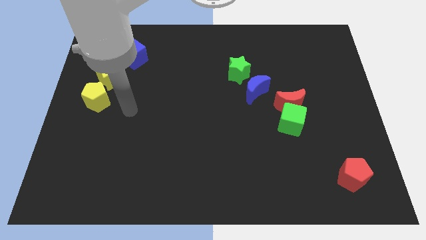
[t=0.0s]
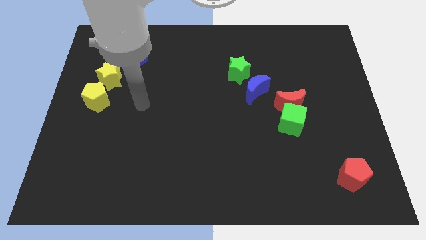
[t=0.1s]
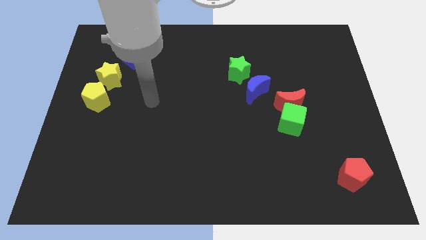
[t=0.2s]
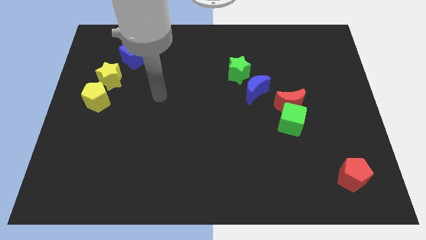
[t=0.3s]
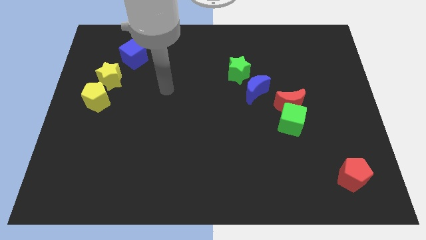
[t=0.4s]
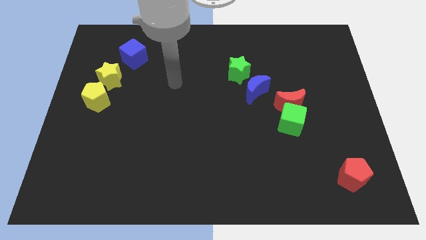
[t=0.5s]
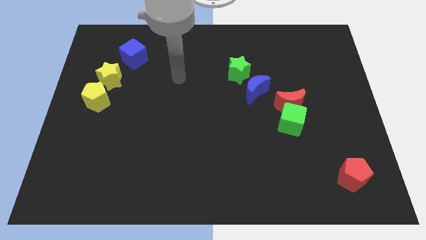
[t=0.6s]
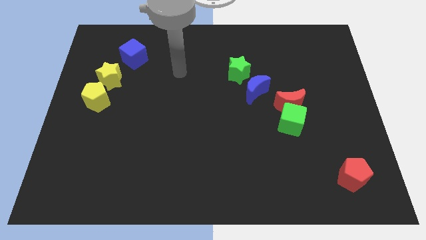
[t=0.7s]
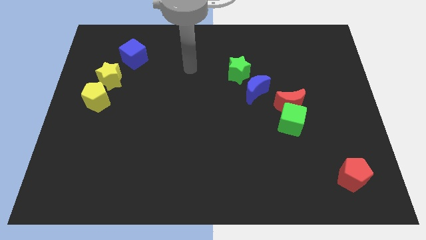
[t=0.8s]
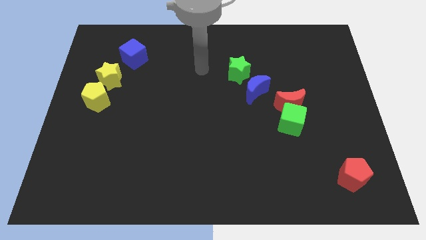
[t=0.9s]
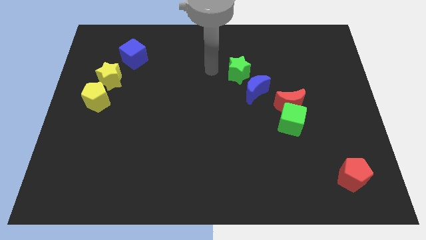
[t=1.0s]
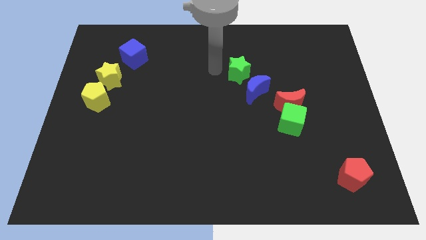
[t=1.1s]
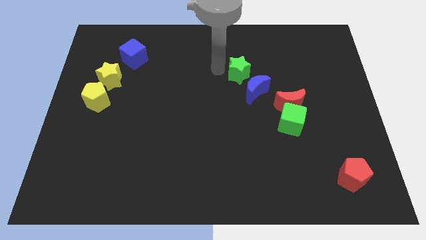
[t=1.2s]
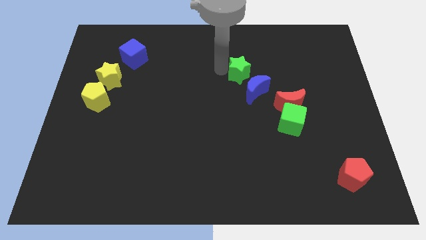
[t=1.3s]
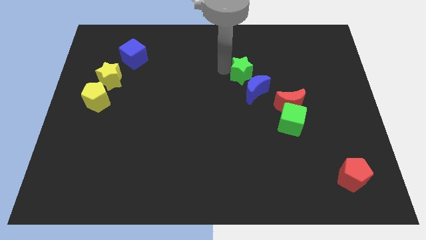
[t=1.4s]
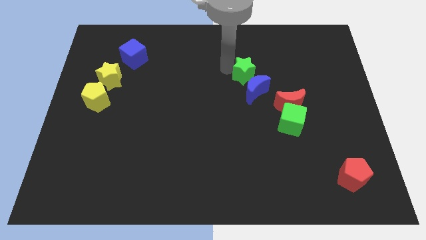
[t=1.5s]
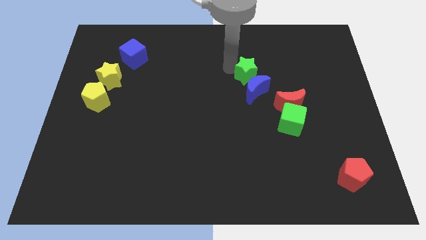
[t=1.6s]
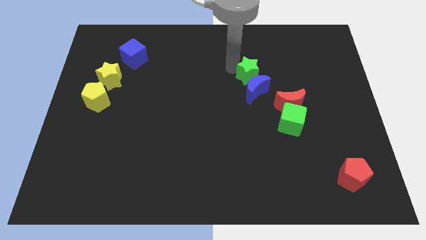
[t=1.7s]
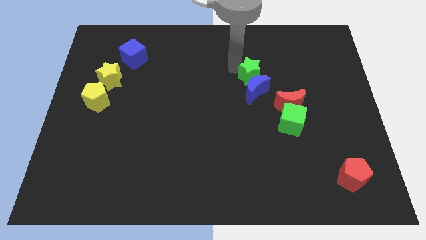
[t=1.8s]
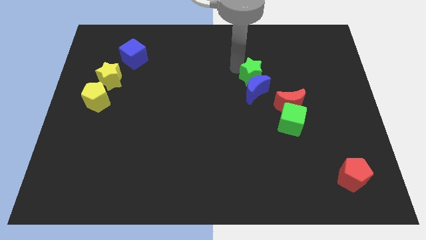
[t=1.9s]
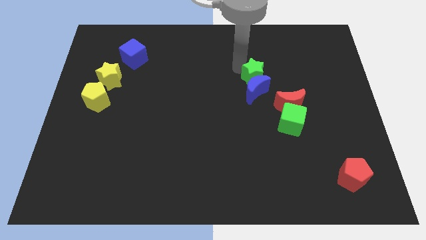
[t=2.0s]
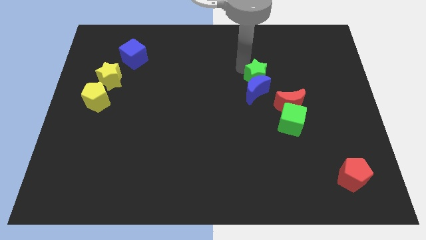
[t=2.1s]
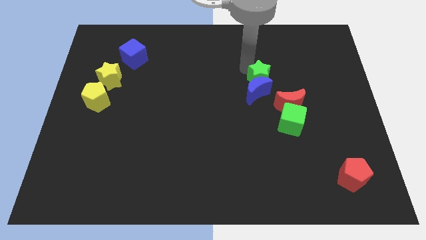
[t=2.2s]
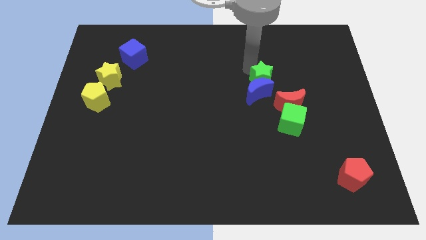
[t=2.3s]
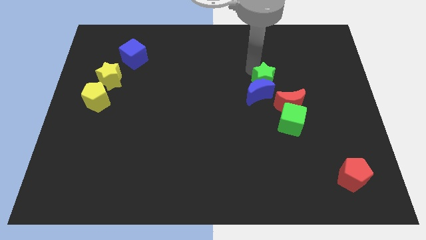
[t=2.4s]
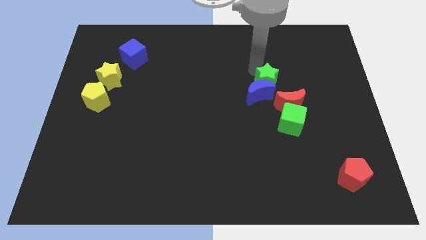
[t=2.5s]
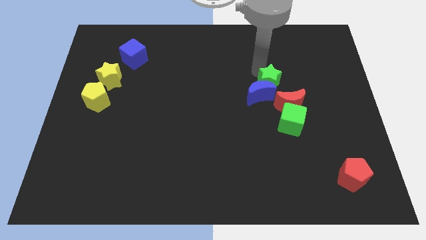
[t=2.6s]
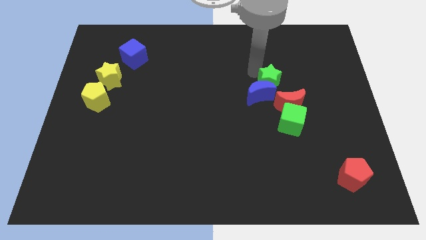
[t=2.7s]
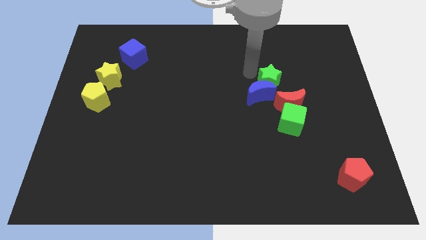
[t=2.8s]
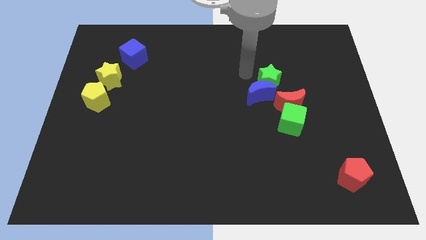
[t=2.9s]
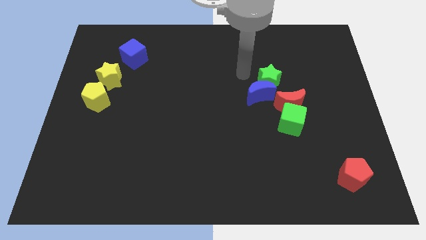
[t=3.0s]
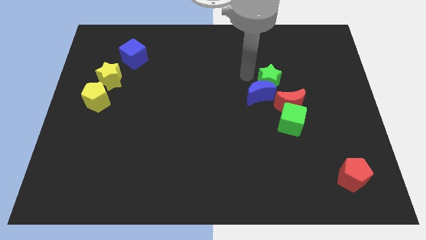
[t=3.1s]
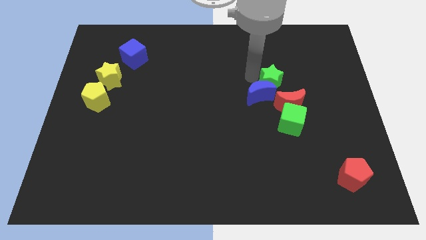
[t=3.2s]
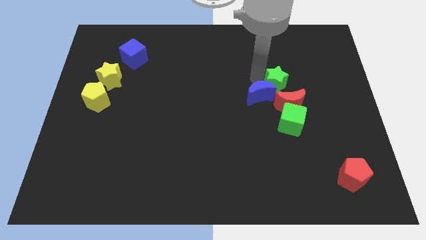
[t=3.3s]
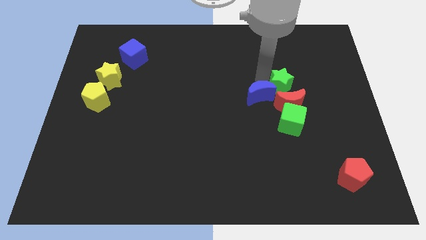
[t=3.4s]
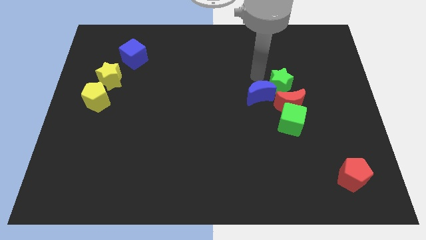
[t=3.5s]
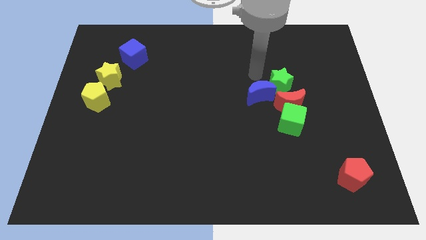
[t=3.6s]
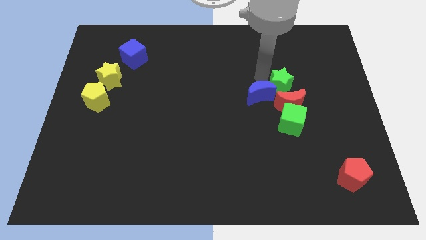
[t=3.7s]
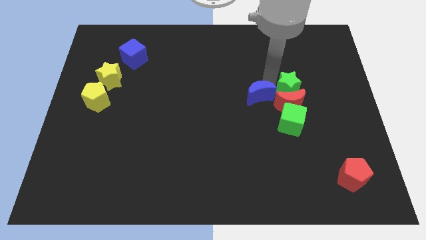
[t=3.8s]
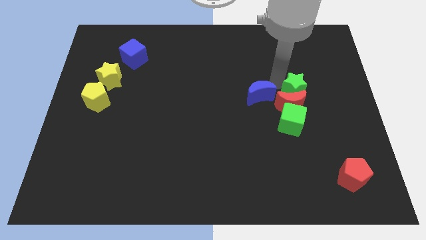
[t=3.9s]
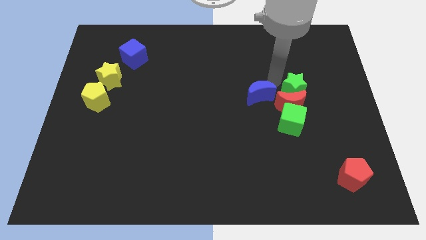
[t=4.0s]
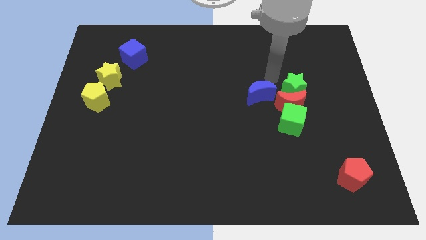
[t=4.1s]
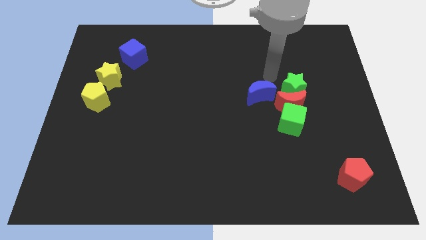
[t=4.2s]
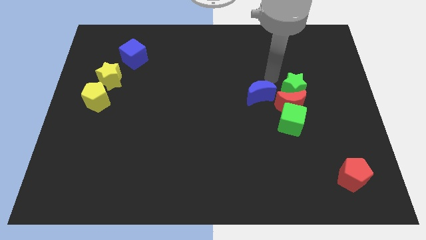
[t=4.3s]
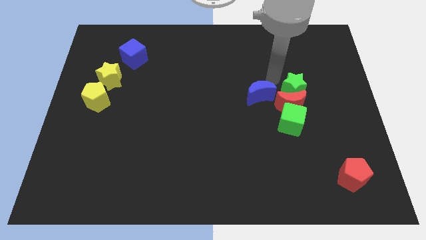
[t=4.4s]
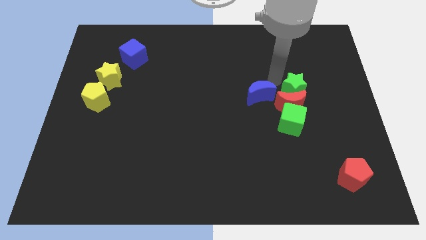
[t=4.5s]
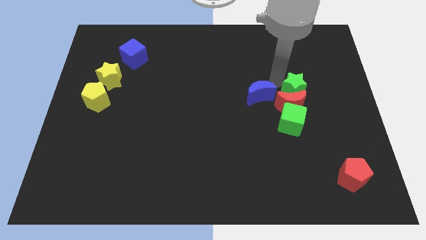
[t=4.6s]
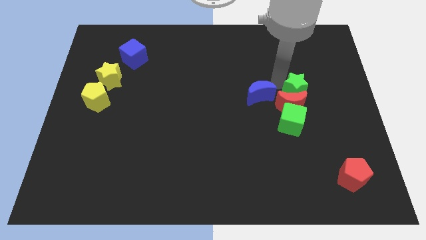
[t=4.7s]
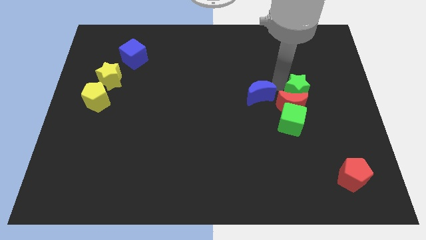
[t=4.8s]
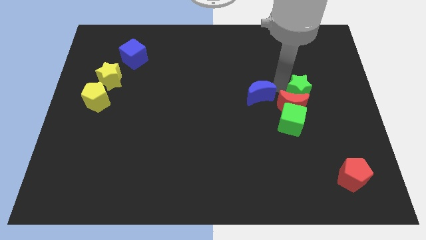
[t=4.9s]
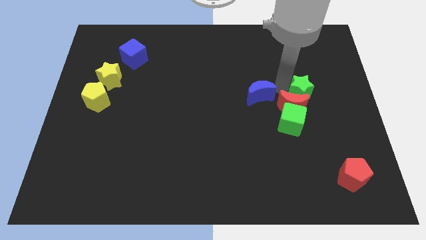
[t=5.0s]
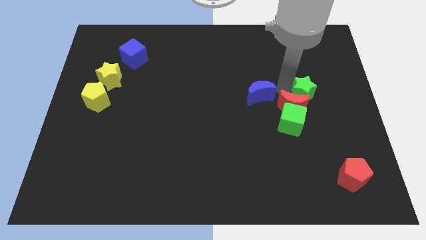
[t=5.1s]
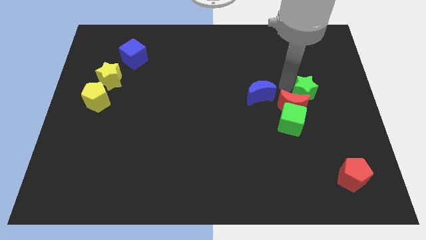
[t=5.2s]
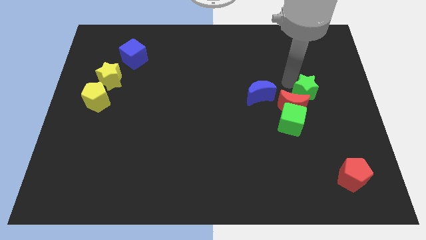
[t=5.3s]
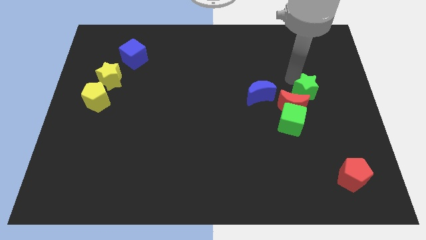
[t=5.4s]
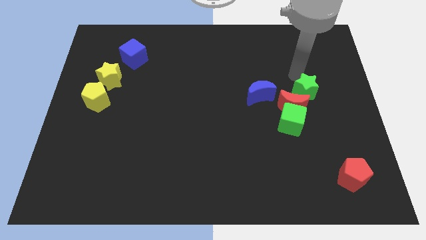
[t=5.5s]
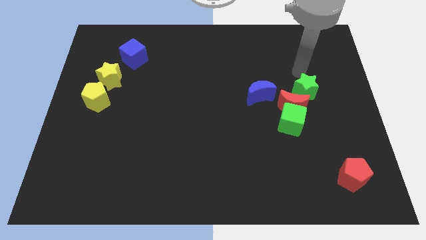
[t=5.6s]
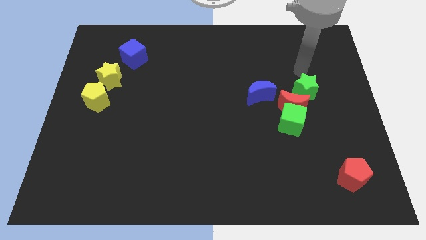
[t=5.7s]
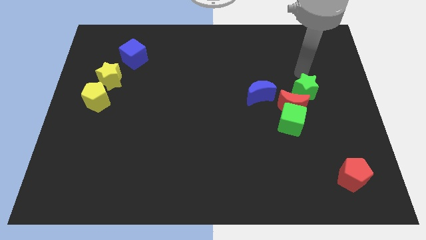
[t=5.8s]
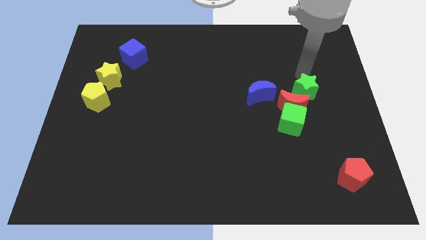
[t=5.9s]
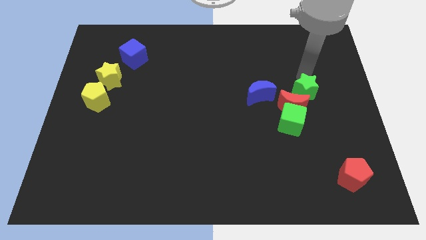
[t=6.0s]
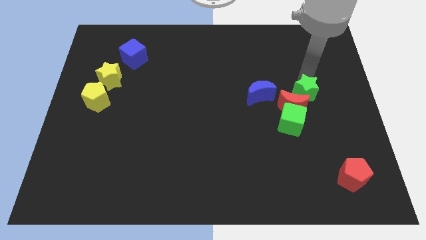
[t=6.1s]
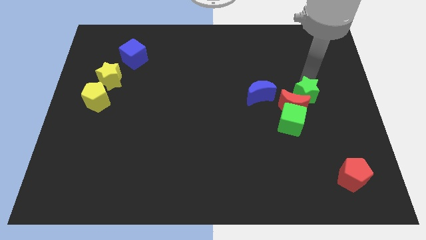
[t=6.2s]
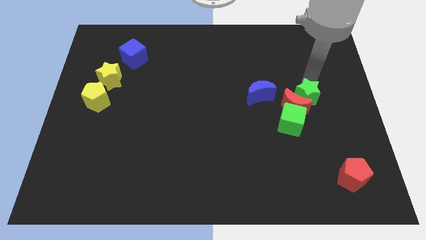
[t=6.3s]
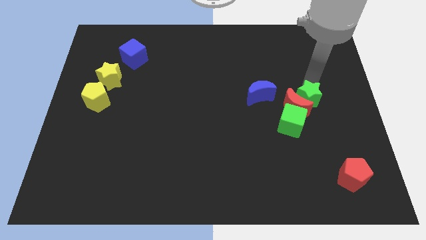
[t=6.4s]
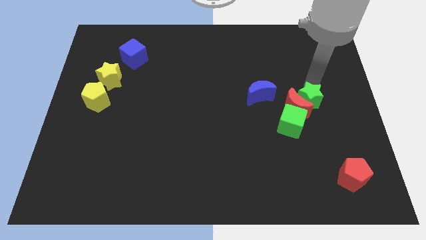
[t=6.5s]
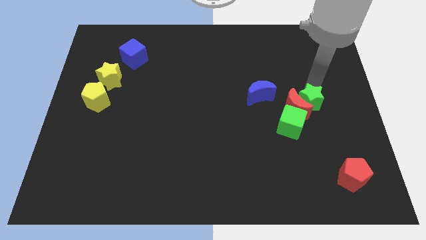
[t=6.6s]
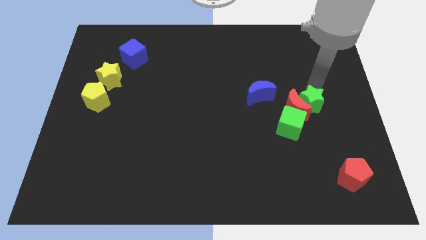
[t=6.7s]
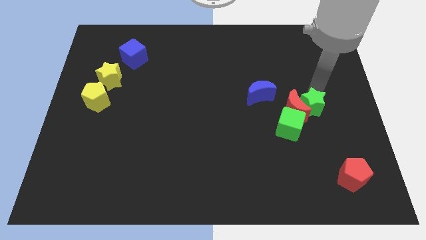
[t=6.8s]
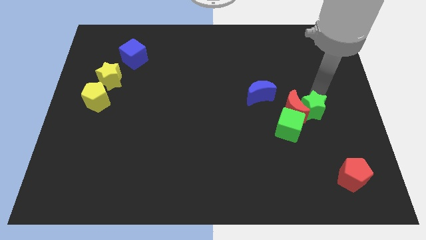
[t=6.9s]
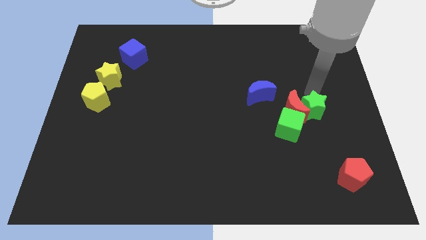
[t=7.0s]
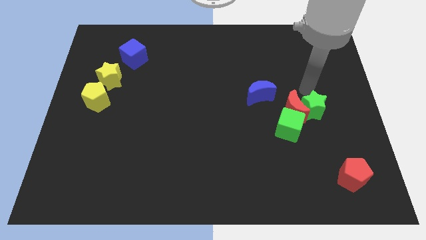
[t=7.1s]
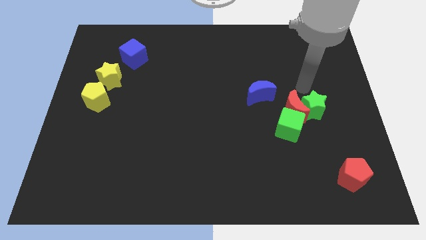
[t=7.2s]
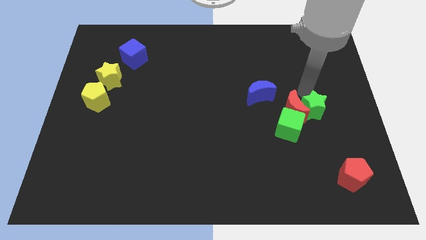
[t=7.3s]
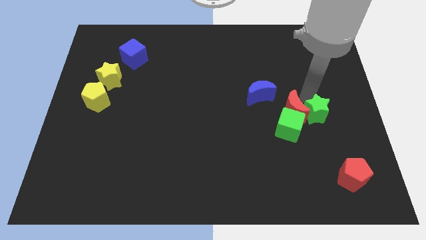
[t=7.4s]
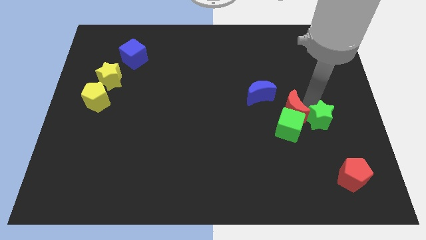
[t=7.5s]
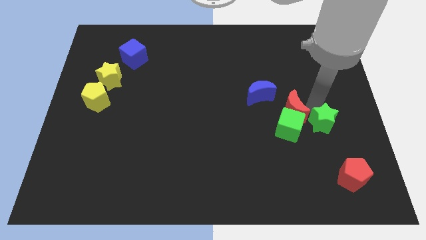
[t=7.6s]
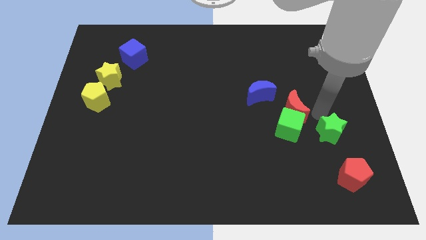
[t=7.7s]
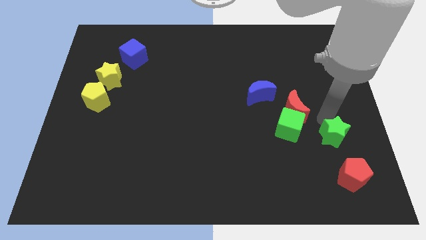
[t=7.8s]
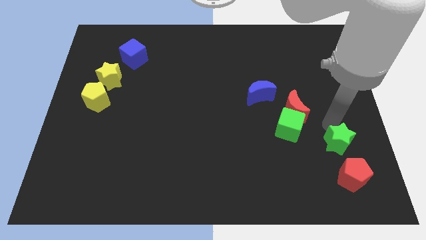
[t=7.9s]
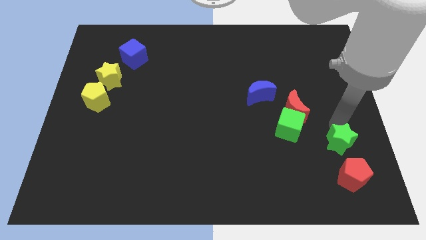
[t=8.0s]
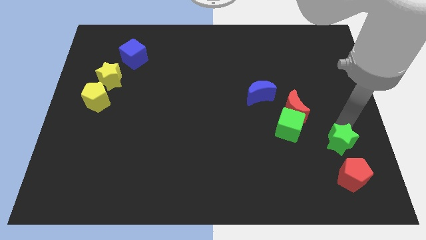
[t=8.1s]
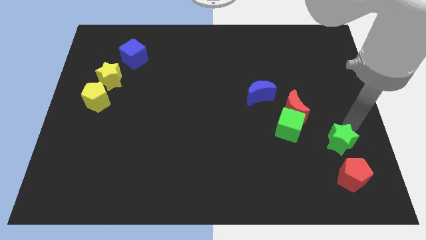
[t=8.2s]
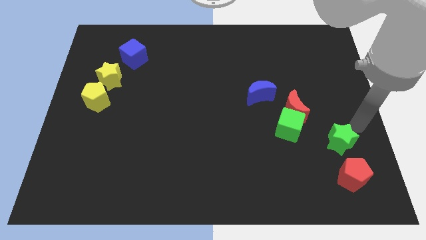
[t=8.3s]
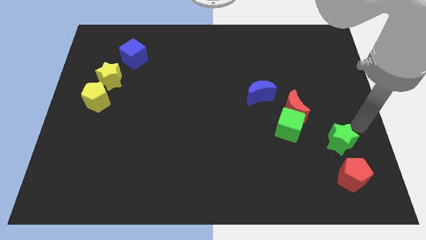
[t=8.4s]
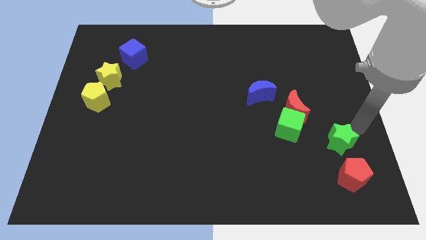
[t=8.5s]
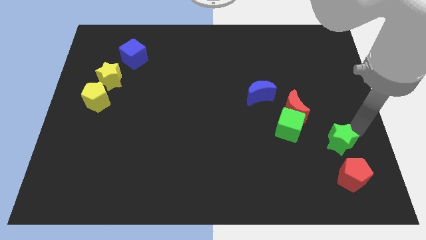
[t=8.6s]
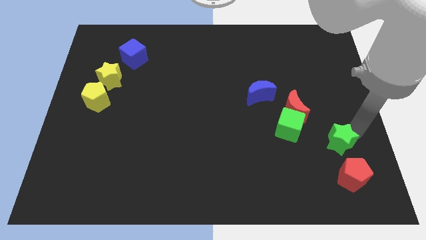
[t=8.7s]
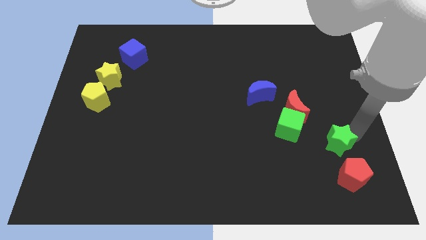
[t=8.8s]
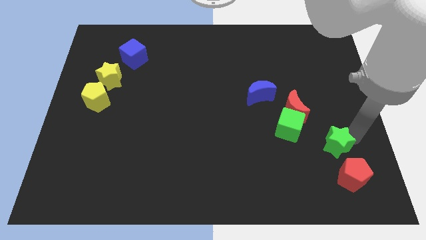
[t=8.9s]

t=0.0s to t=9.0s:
push the green star to the top left of the red pentagon
